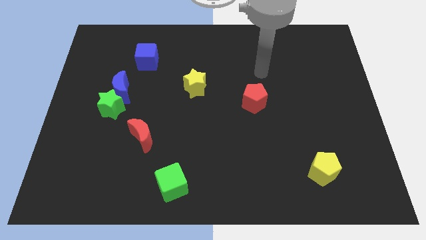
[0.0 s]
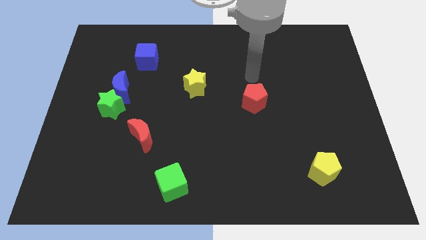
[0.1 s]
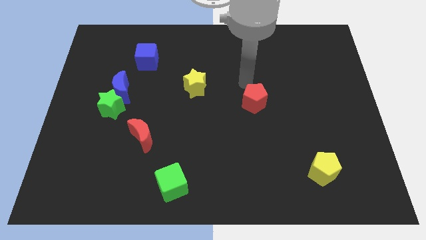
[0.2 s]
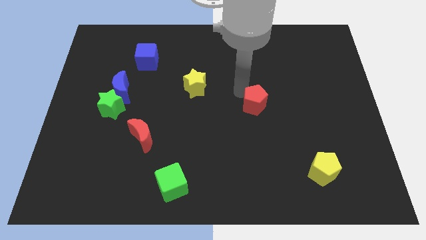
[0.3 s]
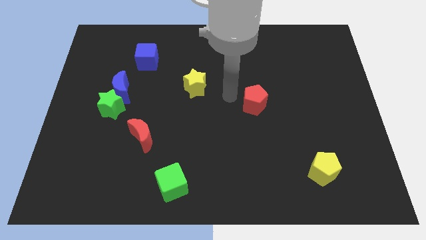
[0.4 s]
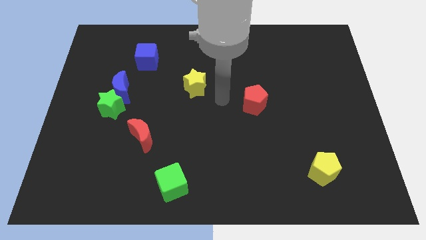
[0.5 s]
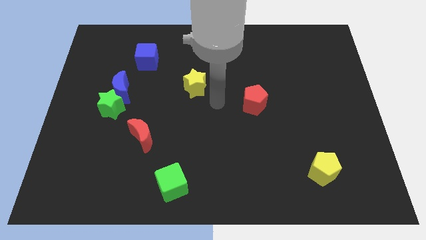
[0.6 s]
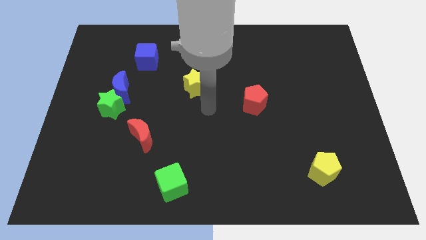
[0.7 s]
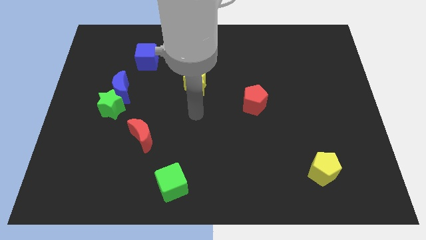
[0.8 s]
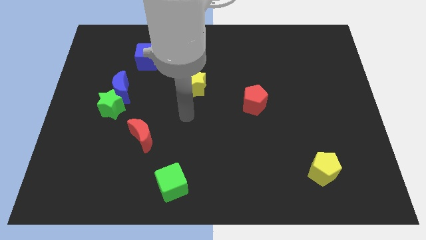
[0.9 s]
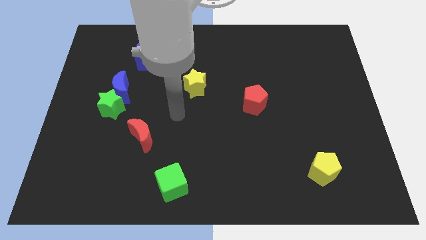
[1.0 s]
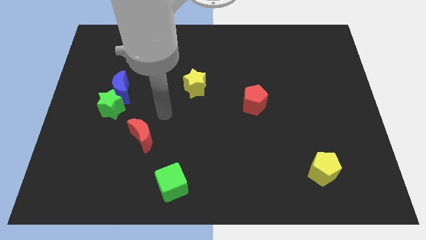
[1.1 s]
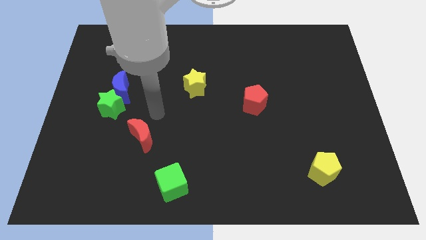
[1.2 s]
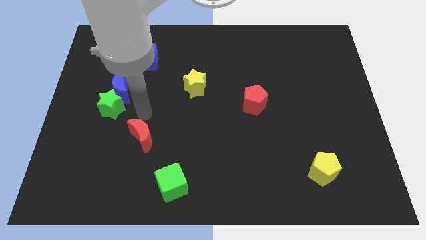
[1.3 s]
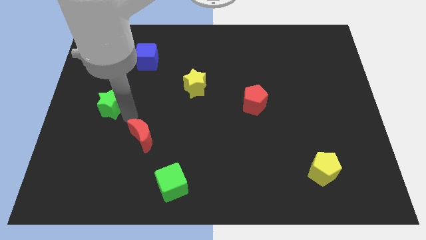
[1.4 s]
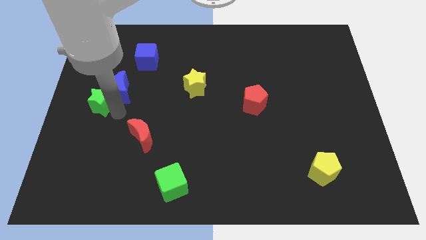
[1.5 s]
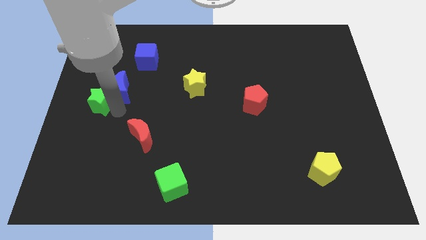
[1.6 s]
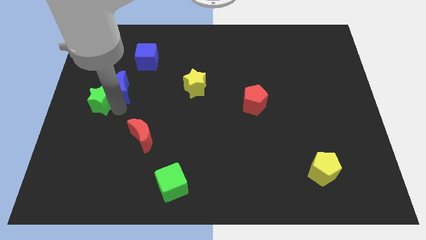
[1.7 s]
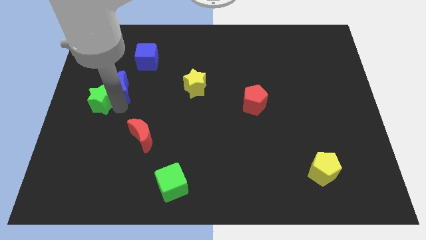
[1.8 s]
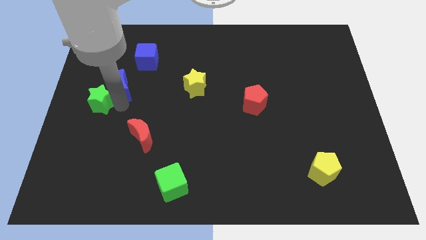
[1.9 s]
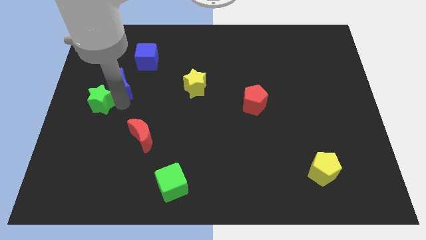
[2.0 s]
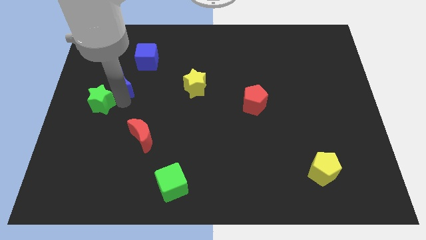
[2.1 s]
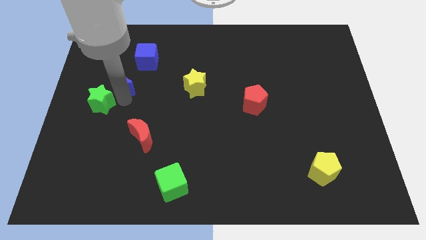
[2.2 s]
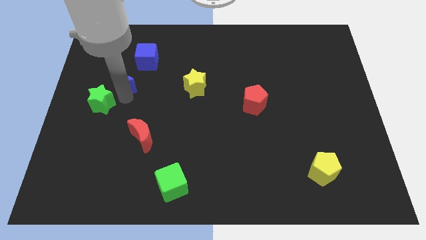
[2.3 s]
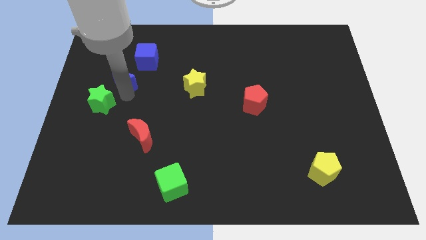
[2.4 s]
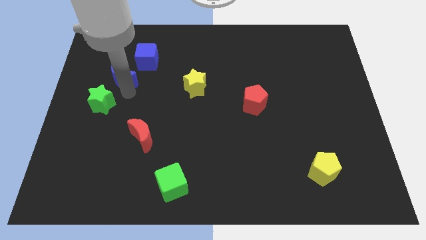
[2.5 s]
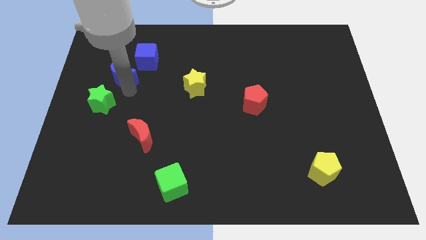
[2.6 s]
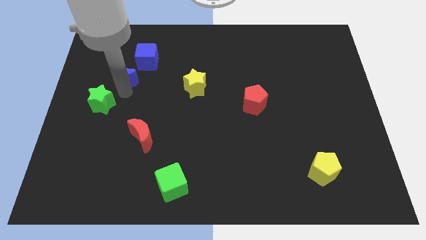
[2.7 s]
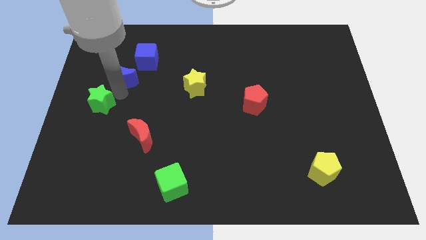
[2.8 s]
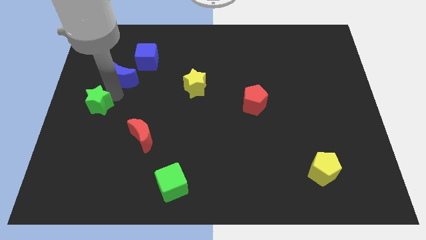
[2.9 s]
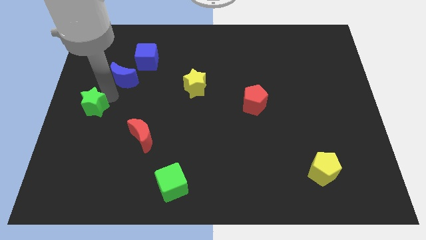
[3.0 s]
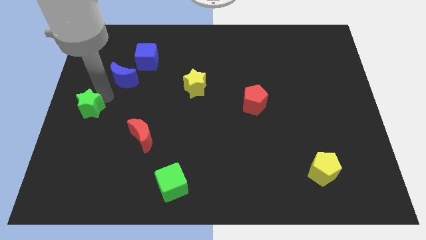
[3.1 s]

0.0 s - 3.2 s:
move the blue moon away from the green star

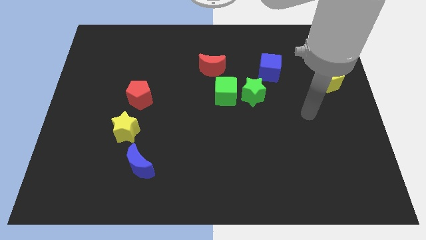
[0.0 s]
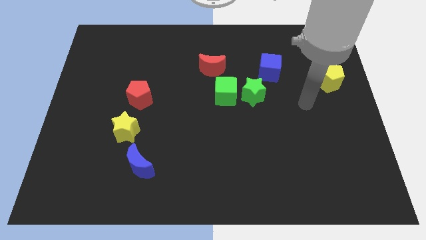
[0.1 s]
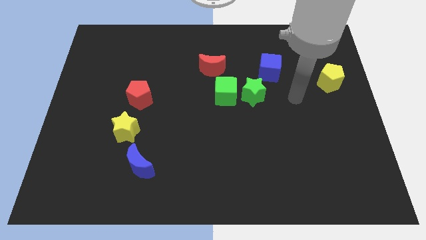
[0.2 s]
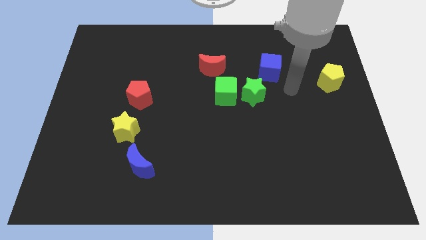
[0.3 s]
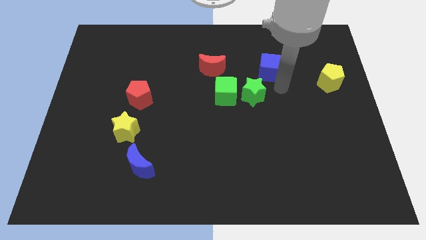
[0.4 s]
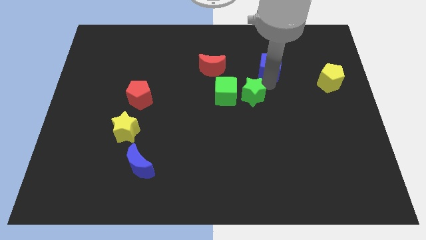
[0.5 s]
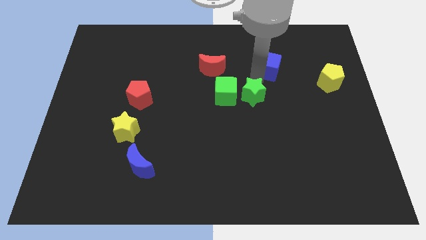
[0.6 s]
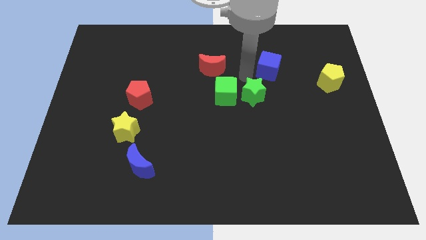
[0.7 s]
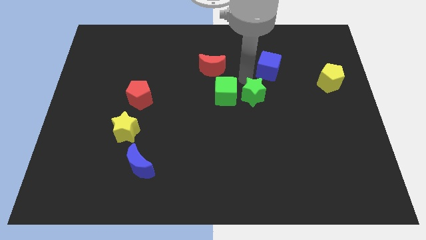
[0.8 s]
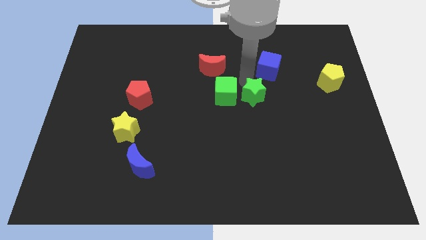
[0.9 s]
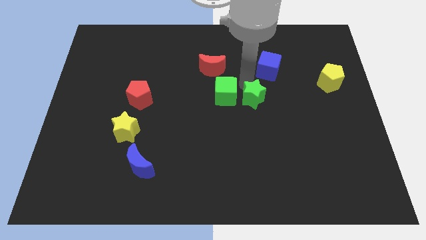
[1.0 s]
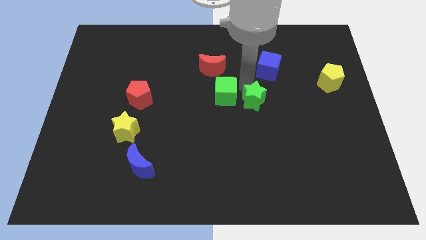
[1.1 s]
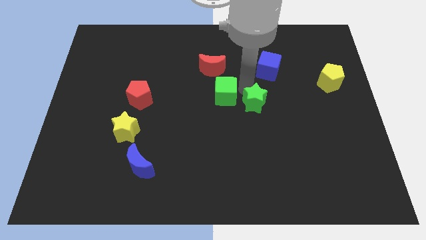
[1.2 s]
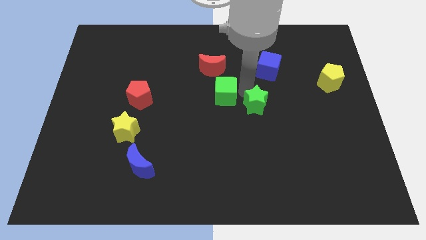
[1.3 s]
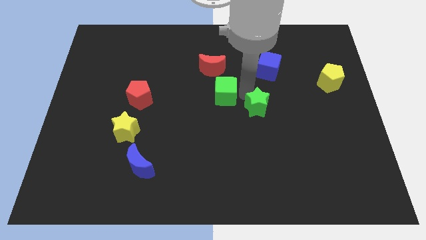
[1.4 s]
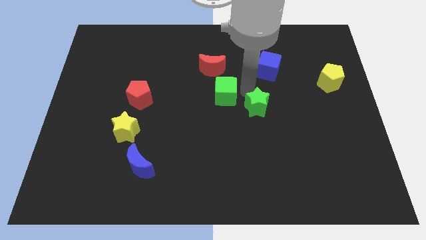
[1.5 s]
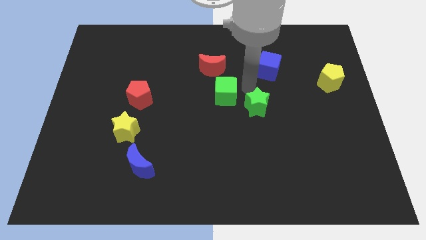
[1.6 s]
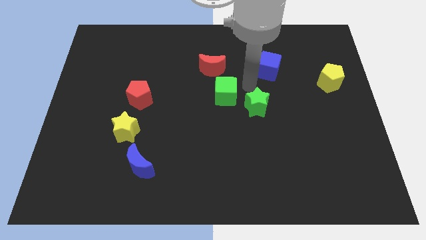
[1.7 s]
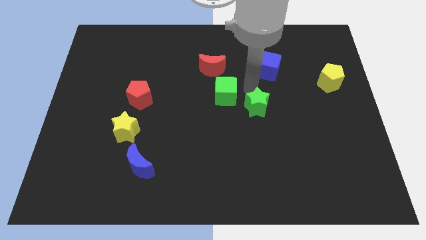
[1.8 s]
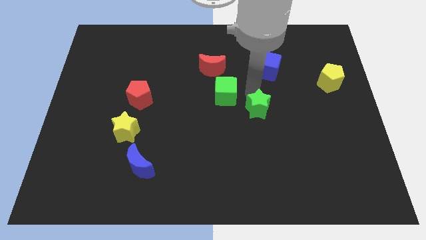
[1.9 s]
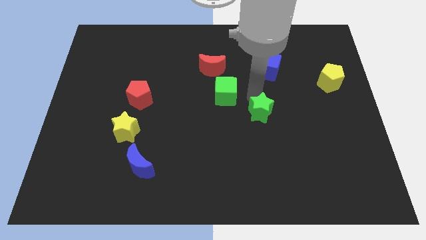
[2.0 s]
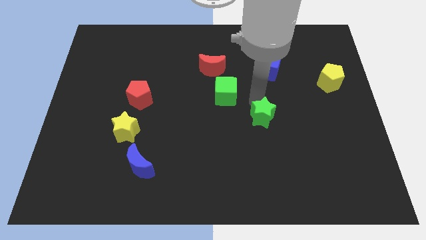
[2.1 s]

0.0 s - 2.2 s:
pull the green star apart from the green cube and blue cube

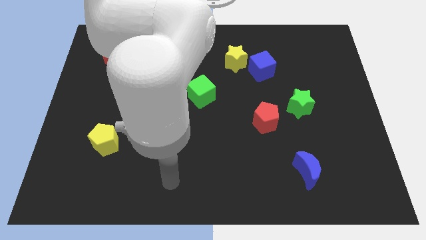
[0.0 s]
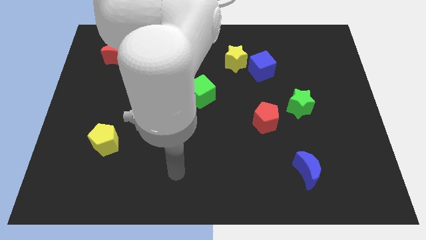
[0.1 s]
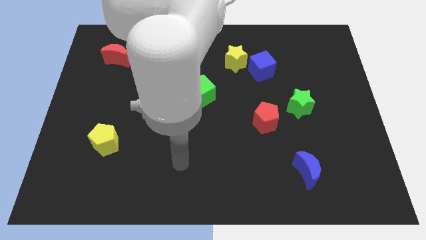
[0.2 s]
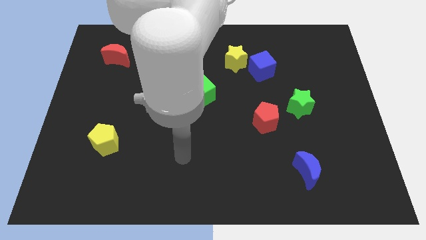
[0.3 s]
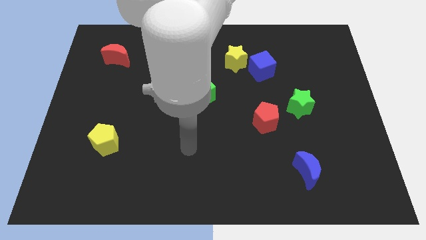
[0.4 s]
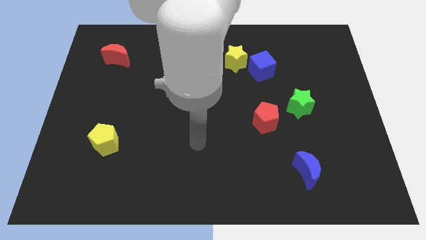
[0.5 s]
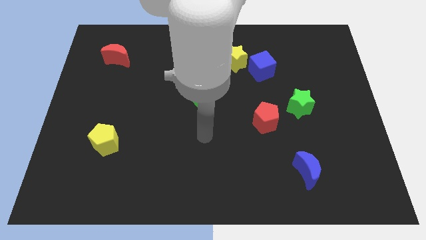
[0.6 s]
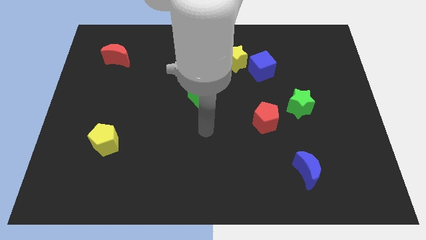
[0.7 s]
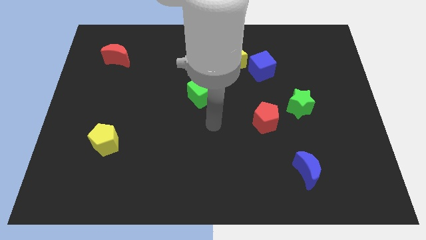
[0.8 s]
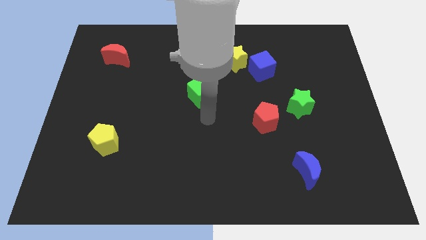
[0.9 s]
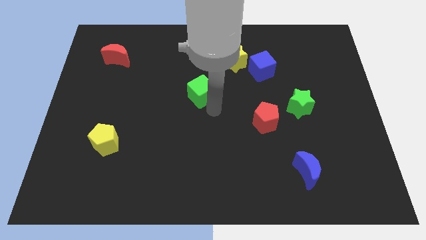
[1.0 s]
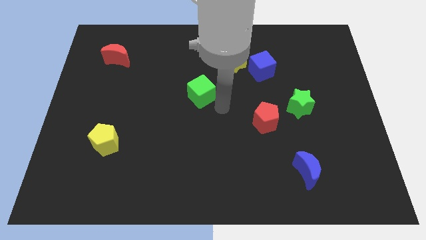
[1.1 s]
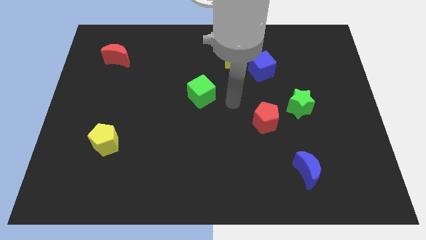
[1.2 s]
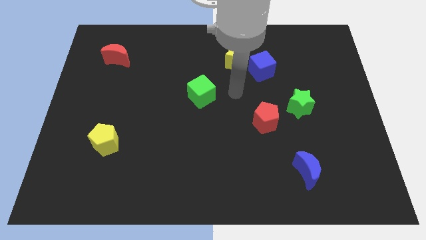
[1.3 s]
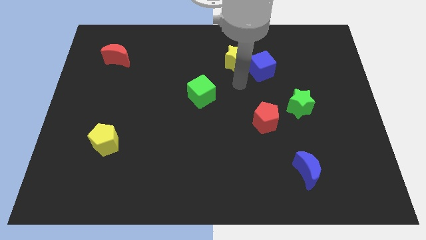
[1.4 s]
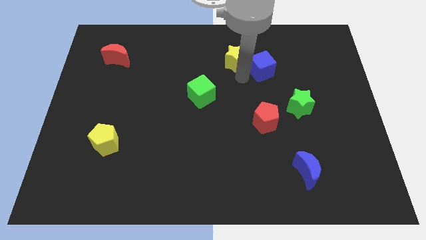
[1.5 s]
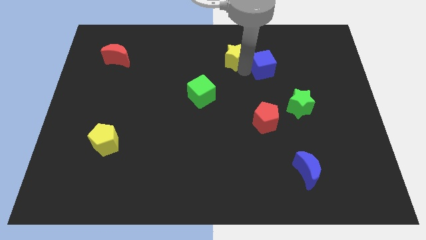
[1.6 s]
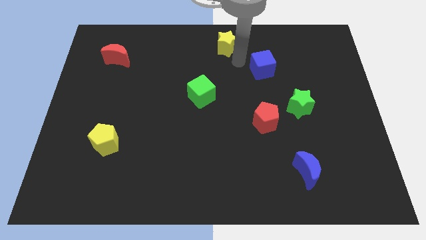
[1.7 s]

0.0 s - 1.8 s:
move the blue cube away from the yellow star

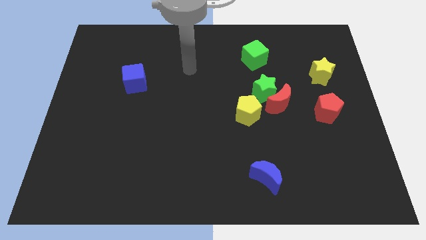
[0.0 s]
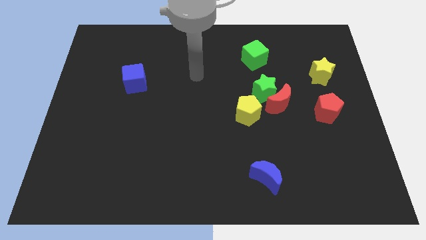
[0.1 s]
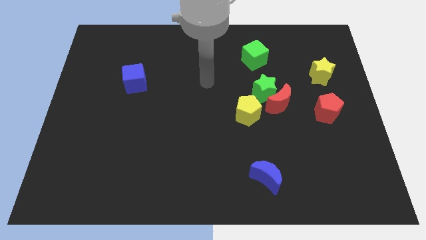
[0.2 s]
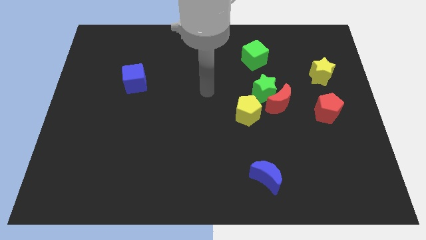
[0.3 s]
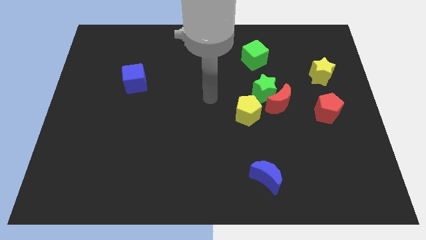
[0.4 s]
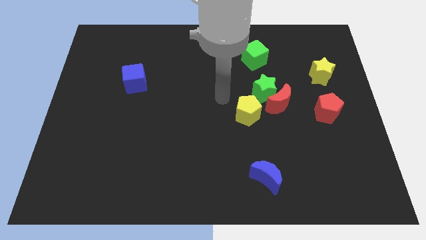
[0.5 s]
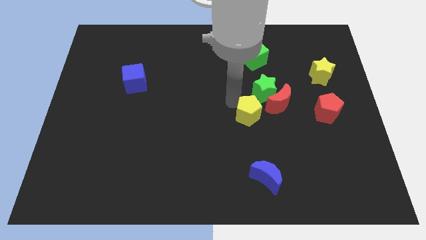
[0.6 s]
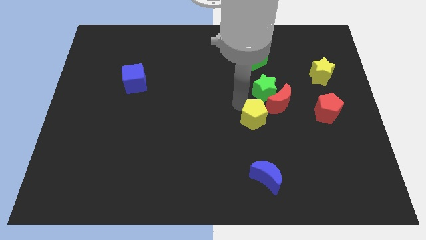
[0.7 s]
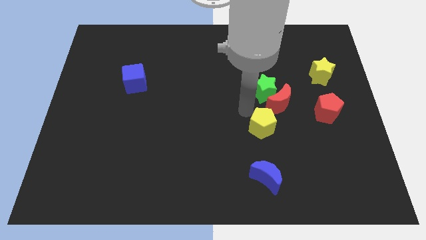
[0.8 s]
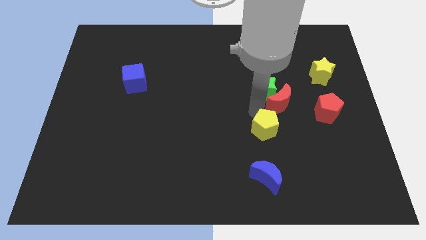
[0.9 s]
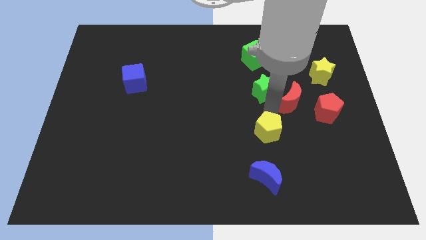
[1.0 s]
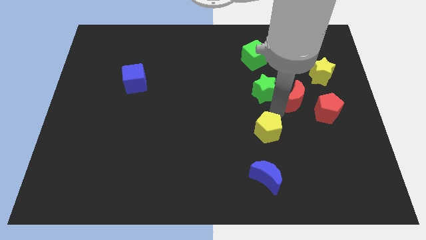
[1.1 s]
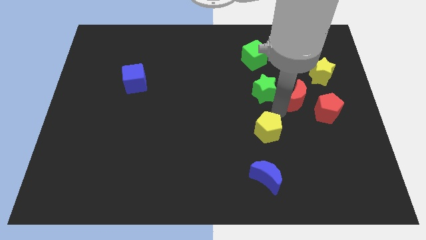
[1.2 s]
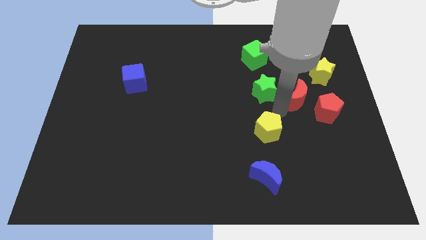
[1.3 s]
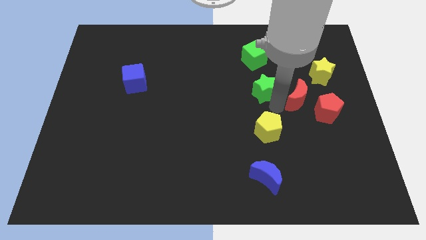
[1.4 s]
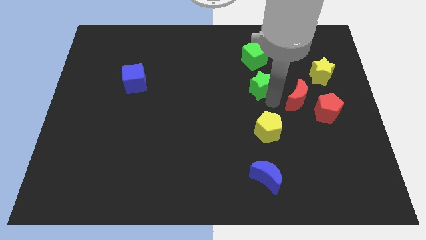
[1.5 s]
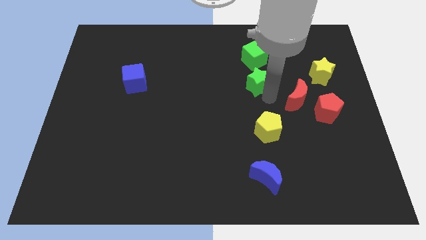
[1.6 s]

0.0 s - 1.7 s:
move the green star away from the red moon and yellow pentagon

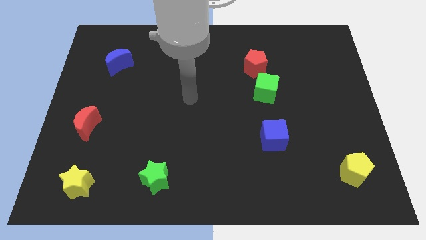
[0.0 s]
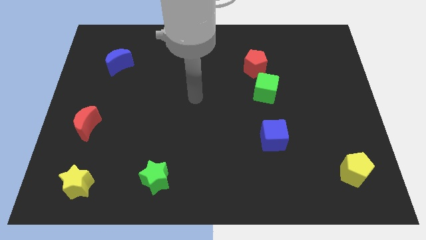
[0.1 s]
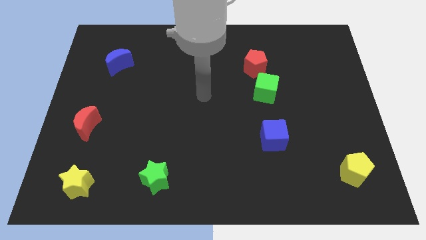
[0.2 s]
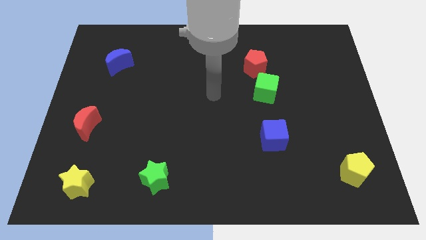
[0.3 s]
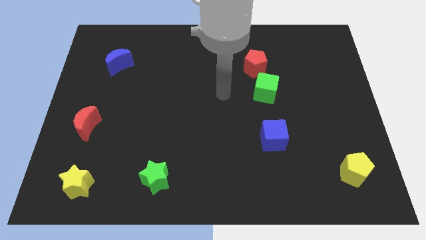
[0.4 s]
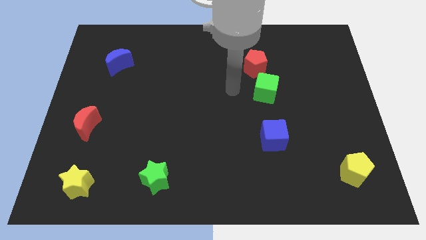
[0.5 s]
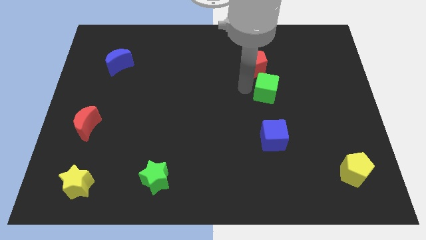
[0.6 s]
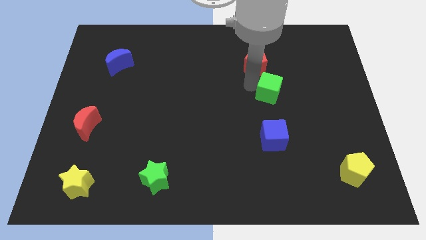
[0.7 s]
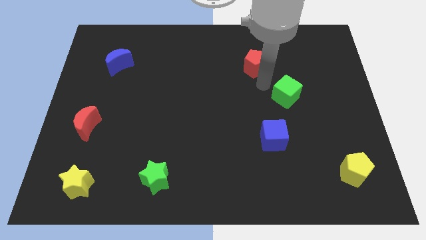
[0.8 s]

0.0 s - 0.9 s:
separate the red pentagon from the green cube
